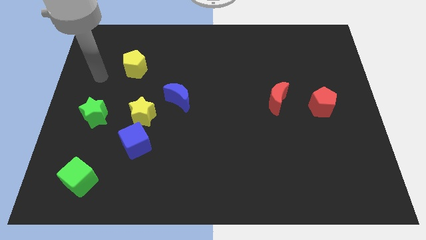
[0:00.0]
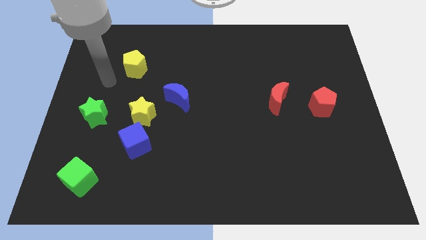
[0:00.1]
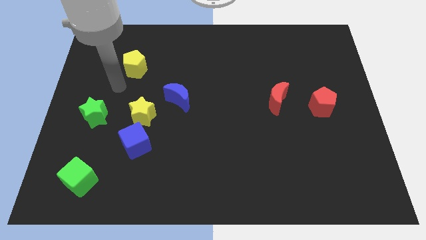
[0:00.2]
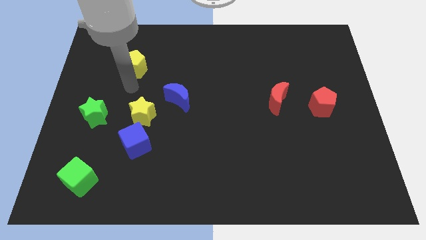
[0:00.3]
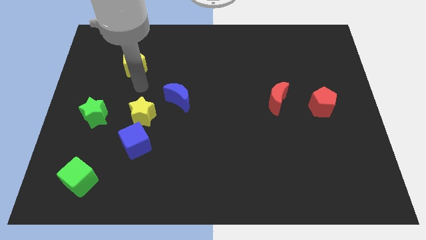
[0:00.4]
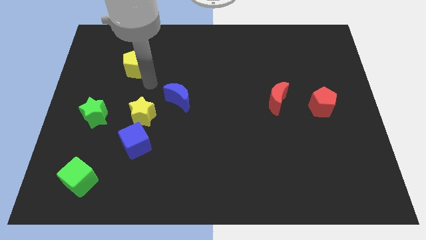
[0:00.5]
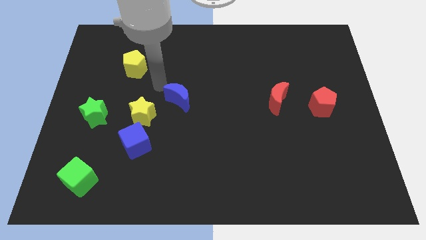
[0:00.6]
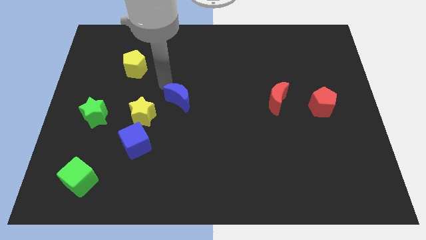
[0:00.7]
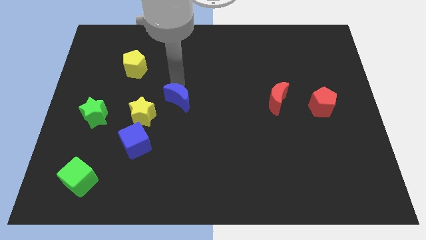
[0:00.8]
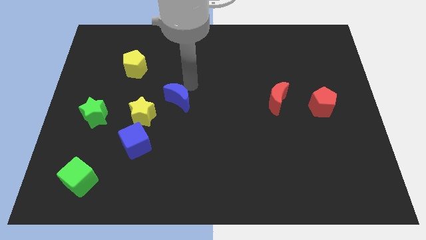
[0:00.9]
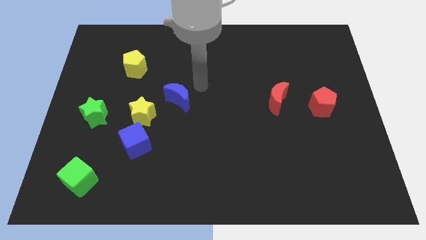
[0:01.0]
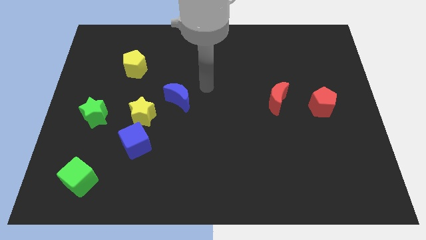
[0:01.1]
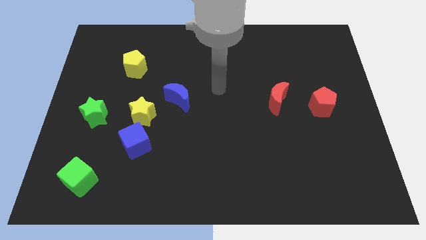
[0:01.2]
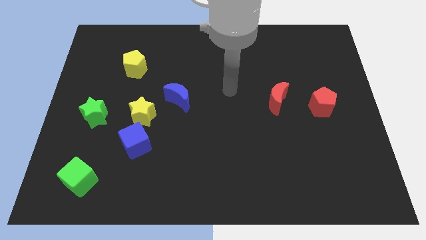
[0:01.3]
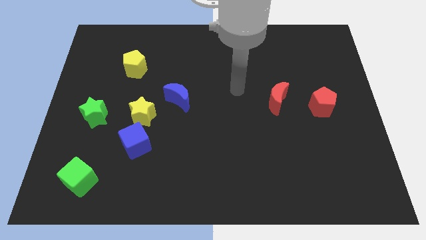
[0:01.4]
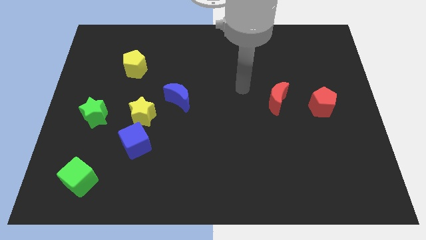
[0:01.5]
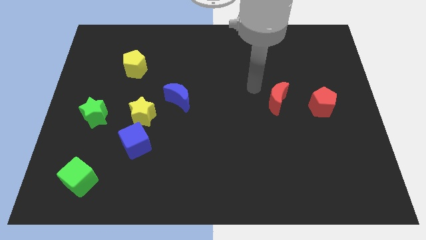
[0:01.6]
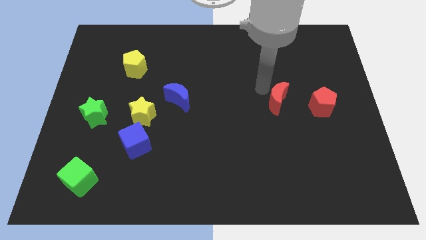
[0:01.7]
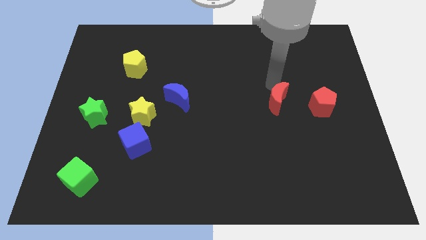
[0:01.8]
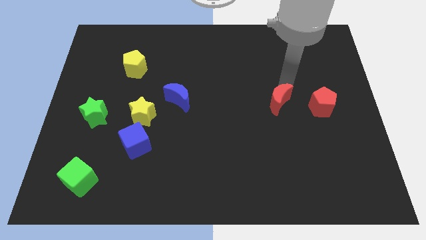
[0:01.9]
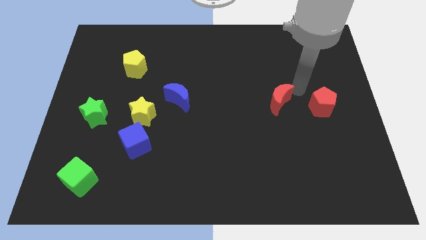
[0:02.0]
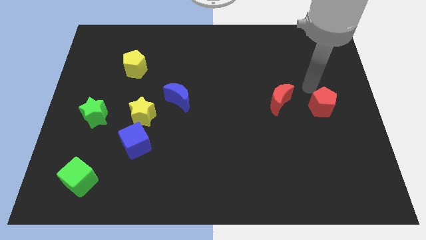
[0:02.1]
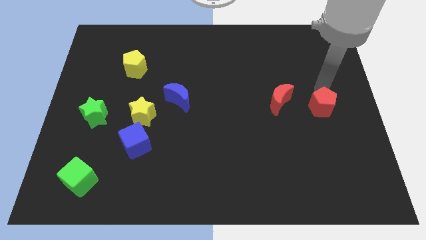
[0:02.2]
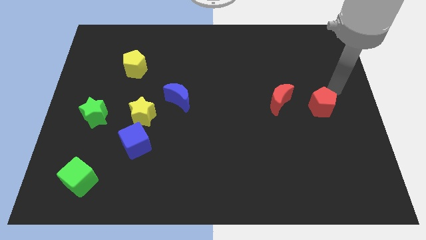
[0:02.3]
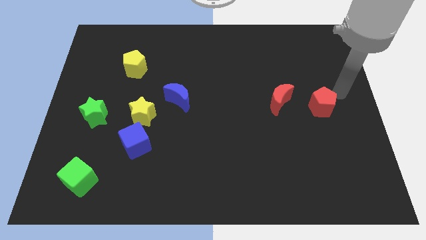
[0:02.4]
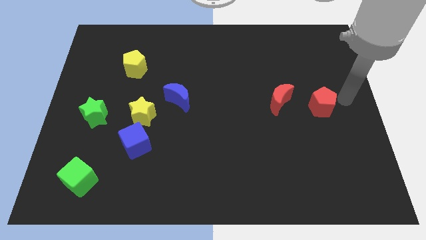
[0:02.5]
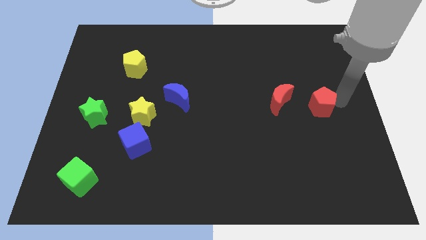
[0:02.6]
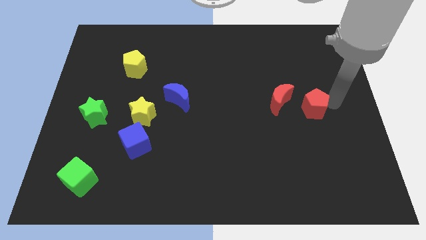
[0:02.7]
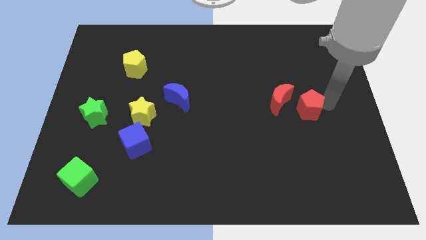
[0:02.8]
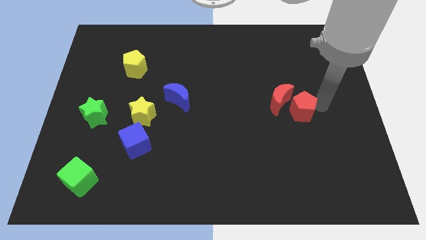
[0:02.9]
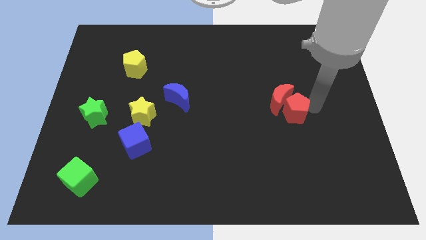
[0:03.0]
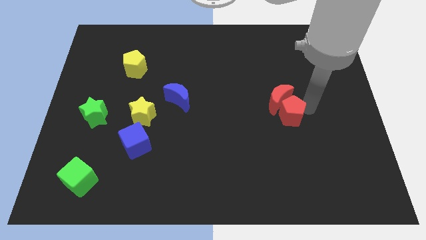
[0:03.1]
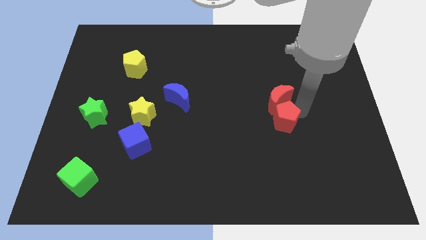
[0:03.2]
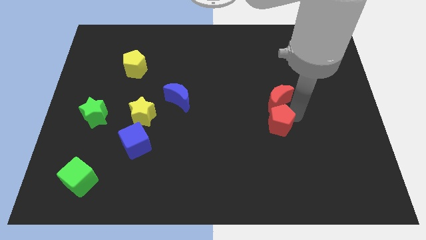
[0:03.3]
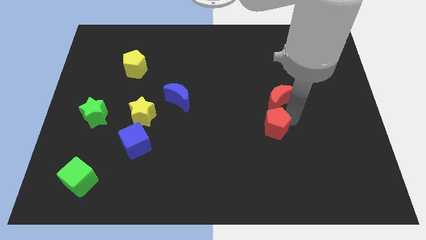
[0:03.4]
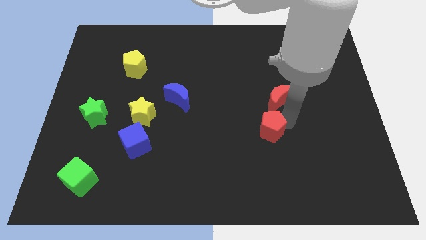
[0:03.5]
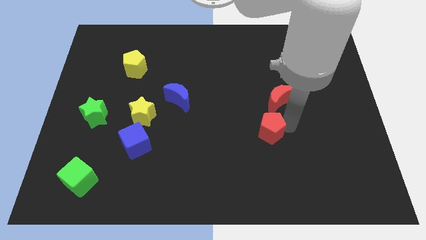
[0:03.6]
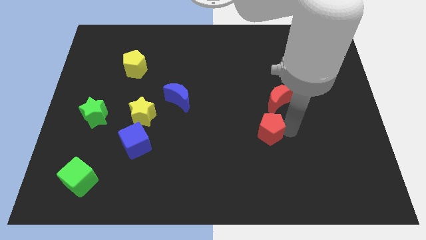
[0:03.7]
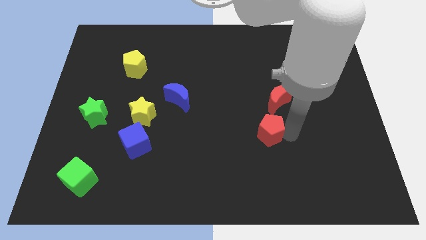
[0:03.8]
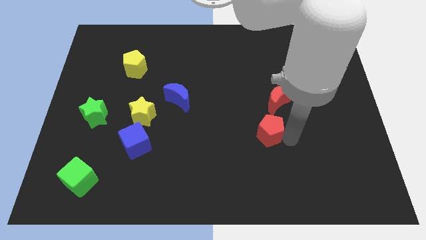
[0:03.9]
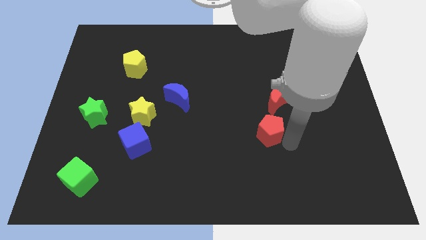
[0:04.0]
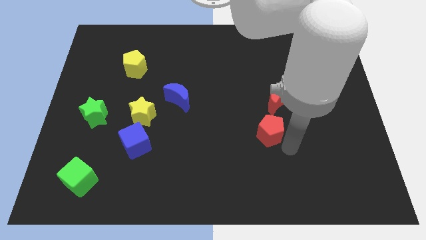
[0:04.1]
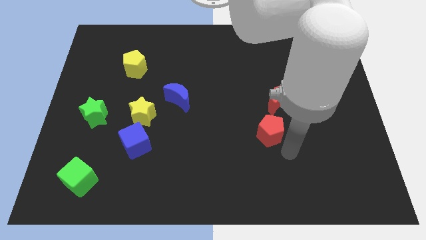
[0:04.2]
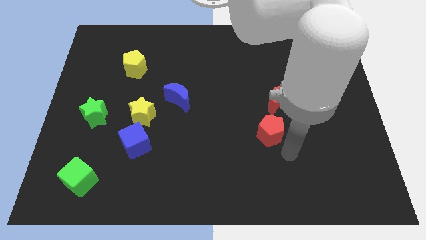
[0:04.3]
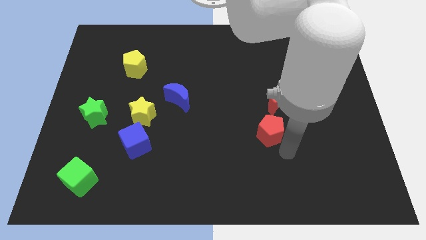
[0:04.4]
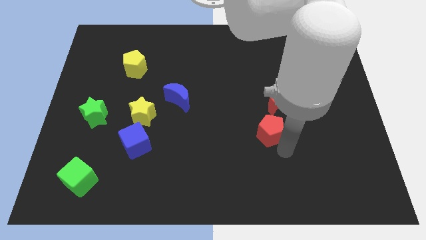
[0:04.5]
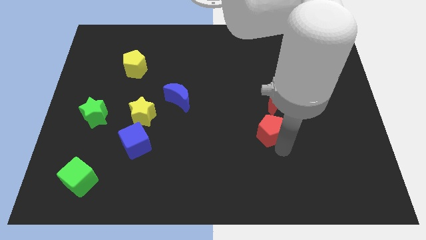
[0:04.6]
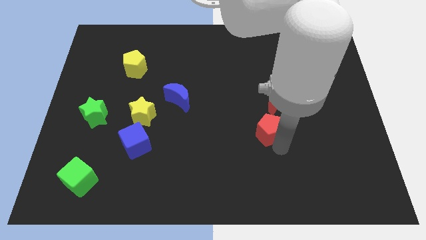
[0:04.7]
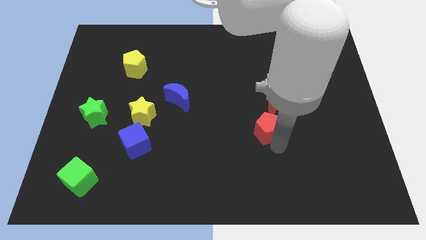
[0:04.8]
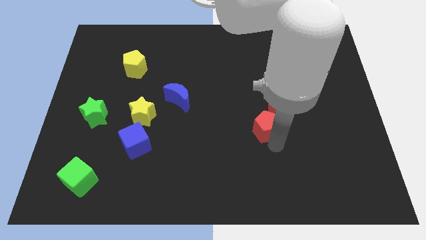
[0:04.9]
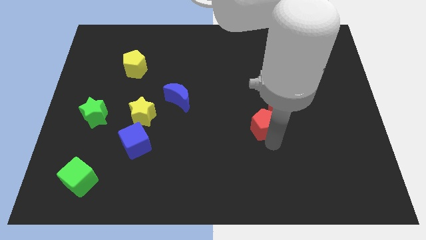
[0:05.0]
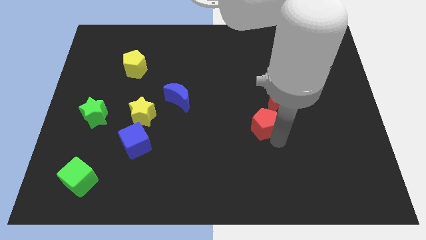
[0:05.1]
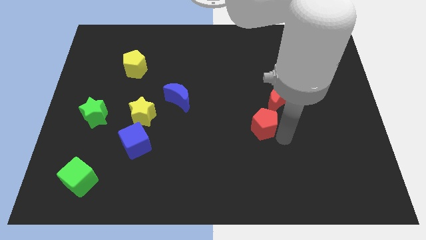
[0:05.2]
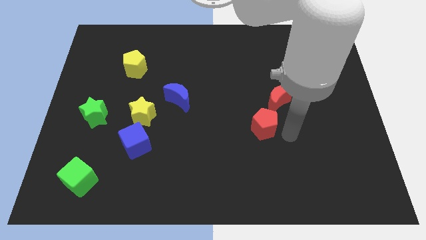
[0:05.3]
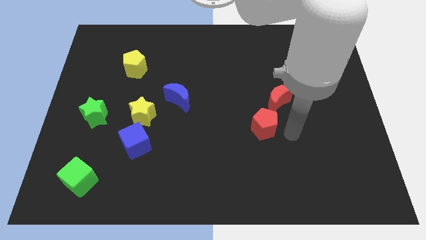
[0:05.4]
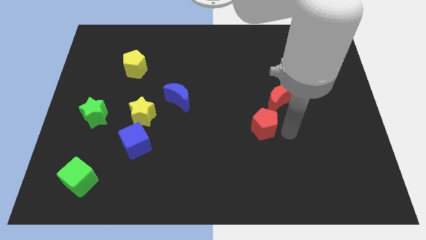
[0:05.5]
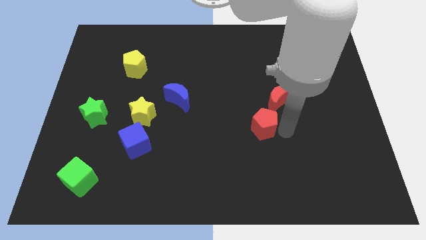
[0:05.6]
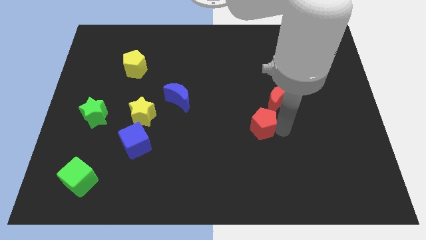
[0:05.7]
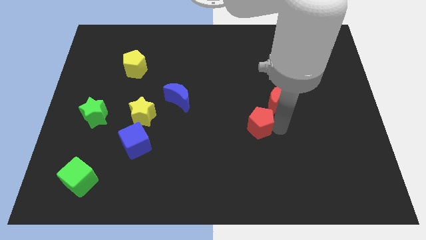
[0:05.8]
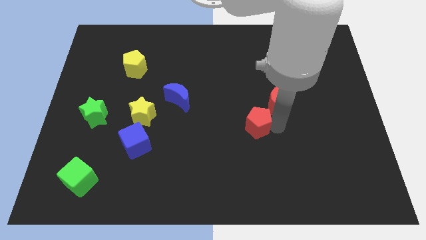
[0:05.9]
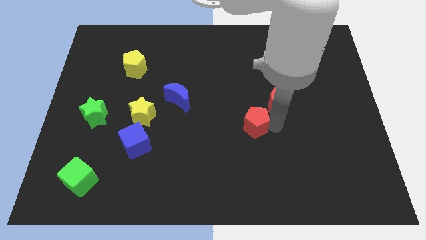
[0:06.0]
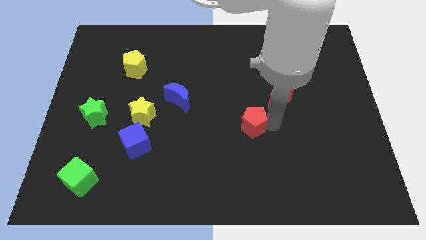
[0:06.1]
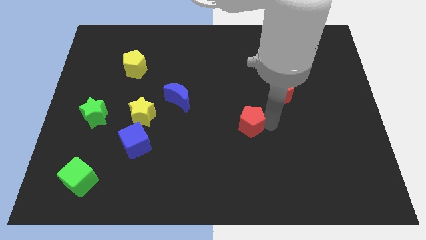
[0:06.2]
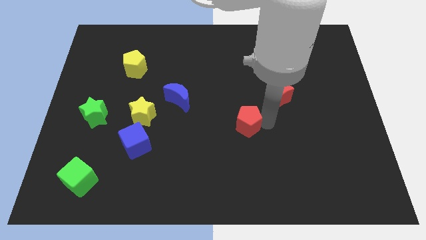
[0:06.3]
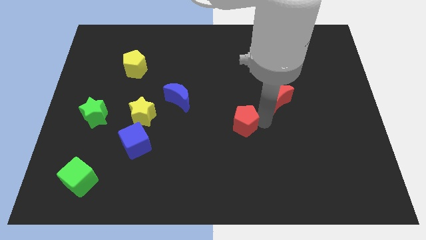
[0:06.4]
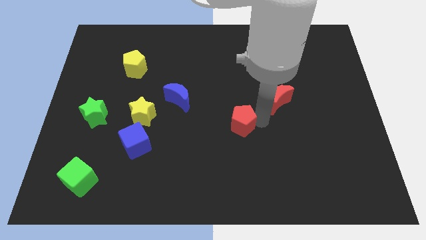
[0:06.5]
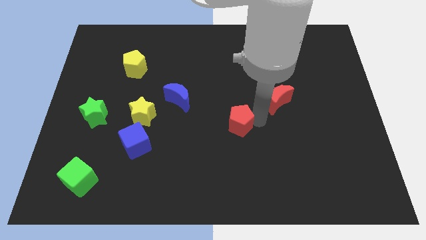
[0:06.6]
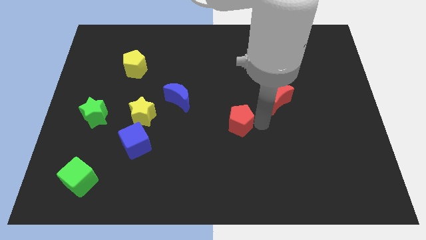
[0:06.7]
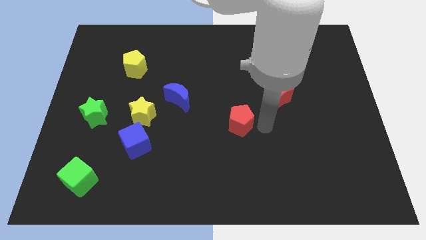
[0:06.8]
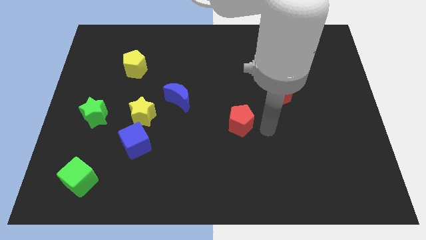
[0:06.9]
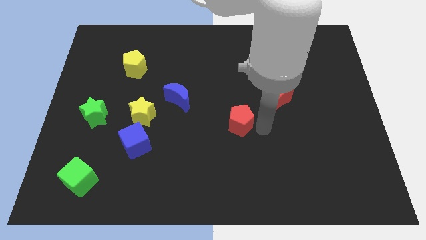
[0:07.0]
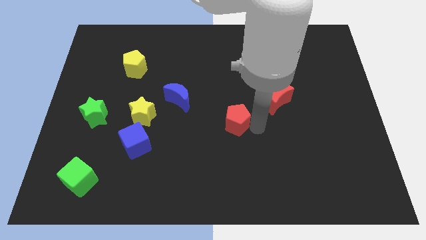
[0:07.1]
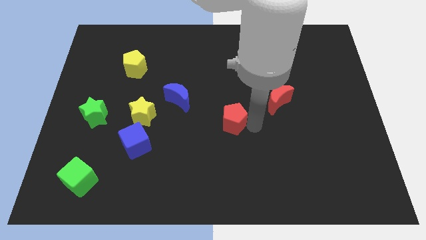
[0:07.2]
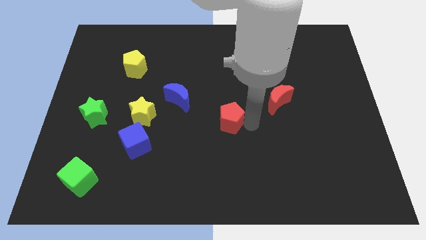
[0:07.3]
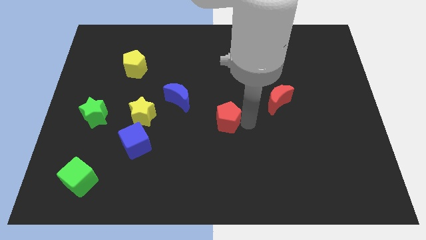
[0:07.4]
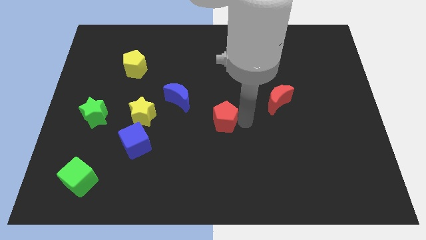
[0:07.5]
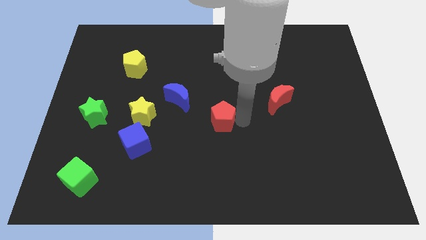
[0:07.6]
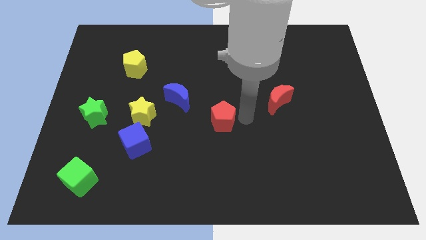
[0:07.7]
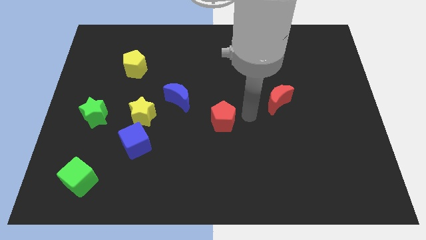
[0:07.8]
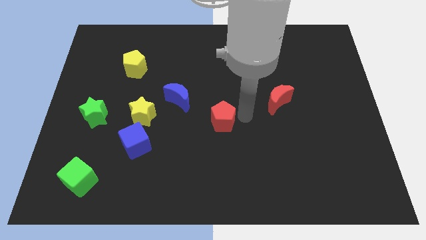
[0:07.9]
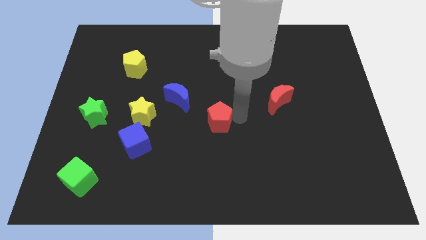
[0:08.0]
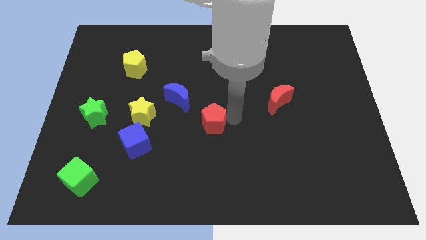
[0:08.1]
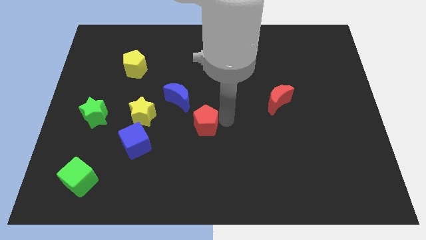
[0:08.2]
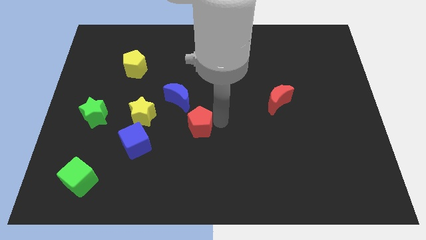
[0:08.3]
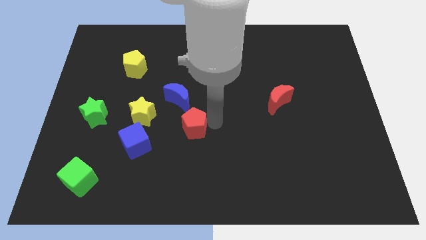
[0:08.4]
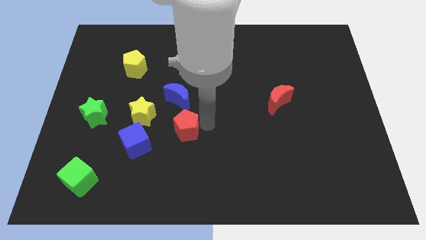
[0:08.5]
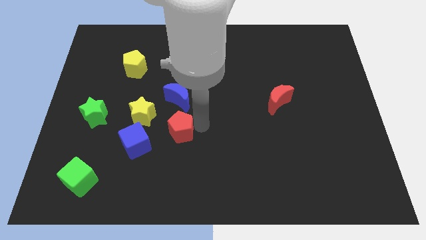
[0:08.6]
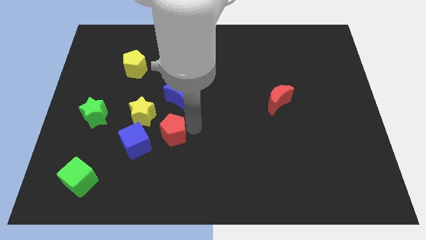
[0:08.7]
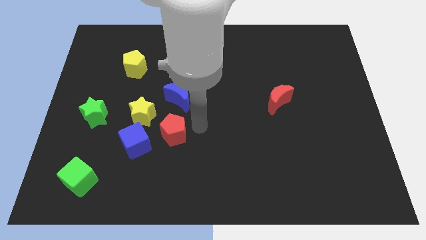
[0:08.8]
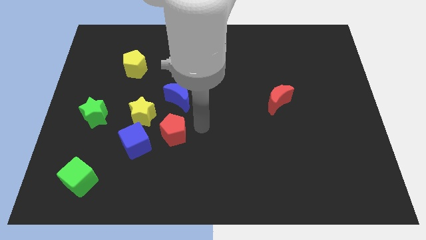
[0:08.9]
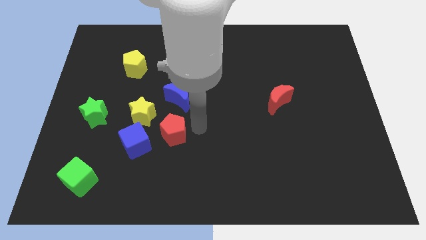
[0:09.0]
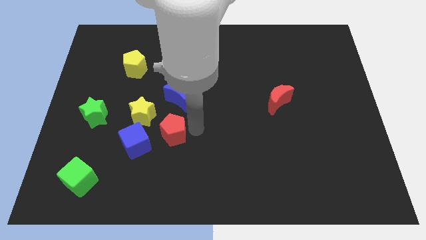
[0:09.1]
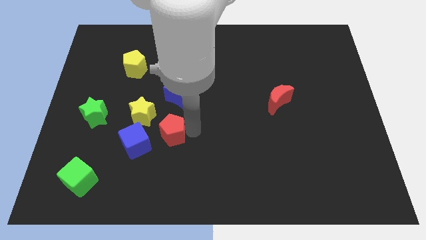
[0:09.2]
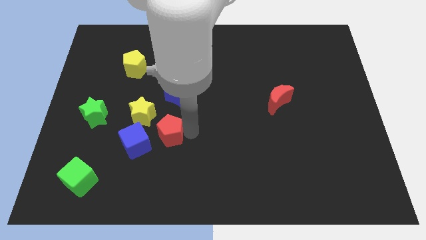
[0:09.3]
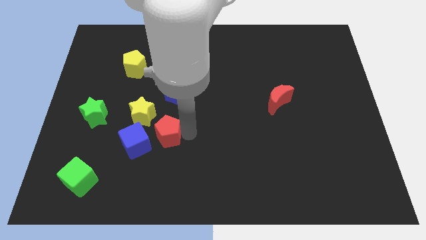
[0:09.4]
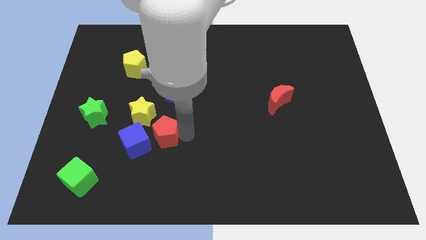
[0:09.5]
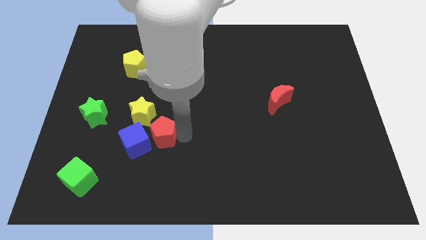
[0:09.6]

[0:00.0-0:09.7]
put the red pentagon to the blue cube
